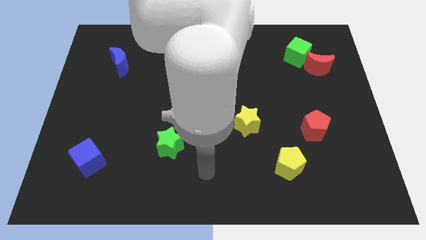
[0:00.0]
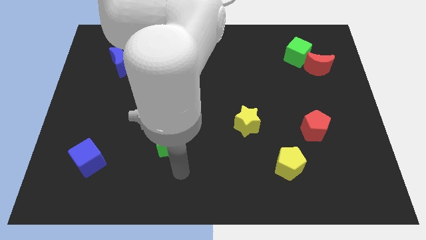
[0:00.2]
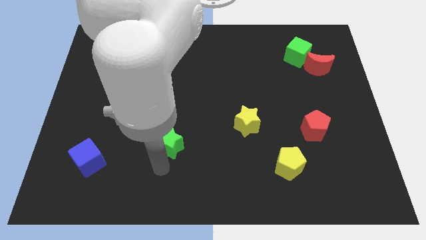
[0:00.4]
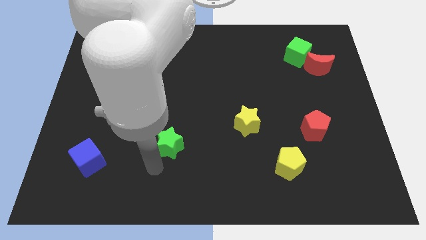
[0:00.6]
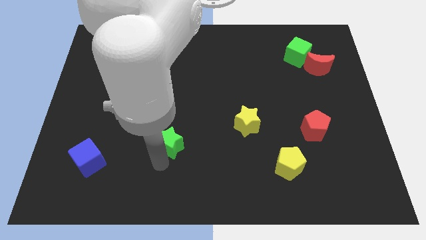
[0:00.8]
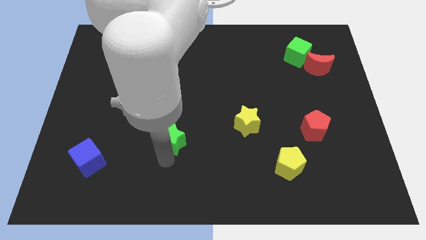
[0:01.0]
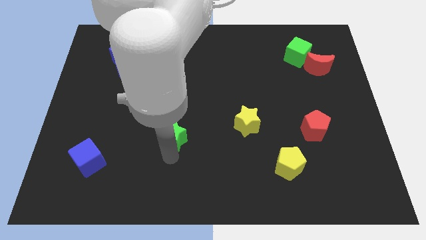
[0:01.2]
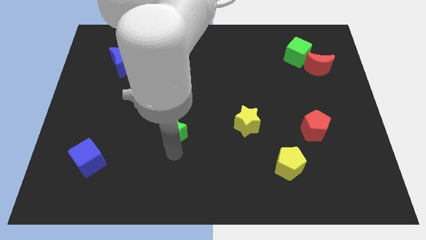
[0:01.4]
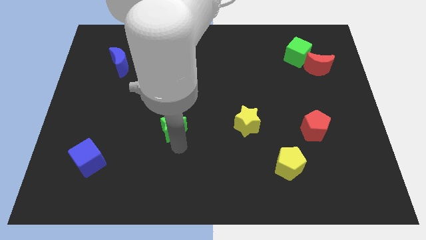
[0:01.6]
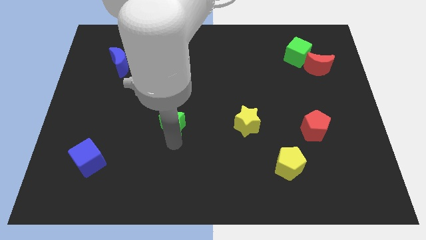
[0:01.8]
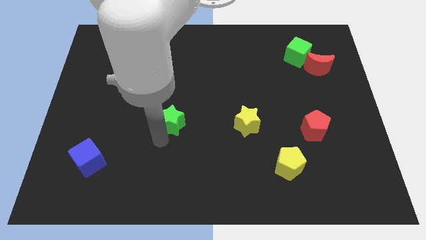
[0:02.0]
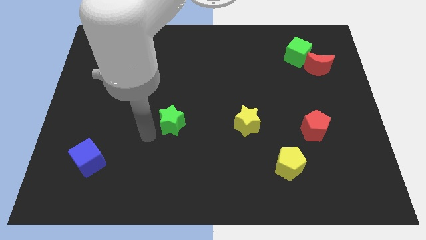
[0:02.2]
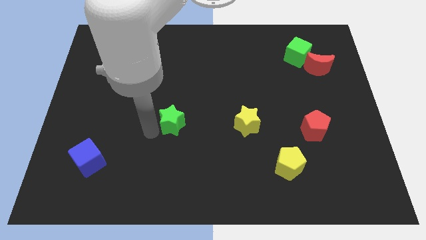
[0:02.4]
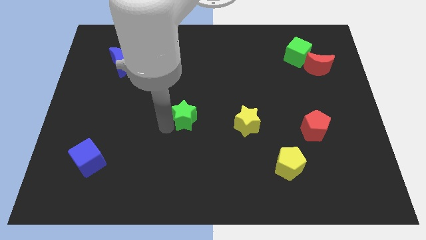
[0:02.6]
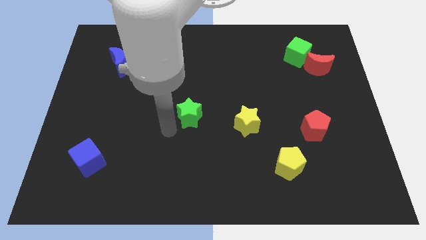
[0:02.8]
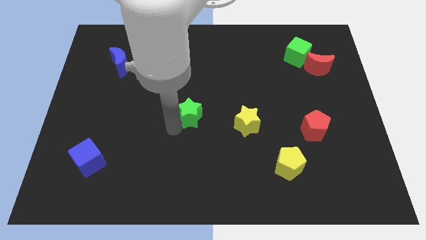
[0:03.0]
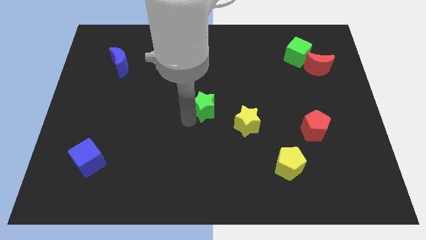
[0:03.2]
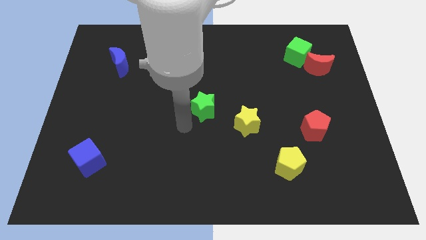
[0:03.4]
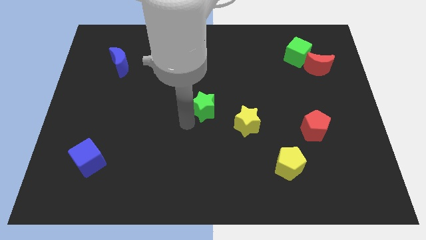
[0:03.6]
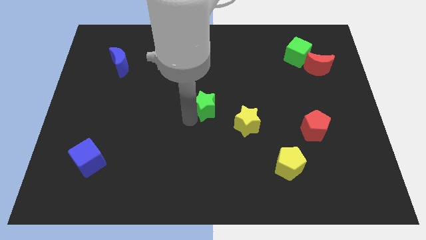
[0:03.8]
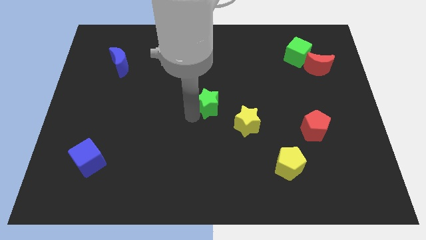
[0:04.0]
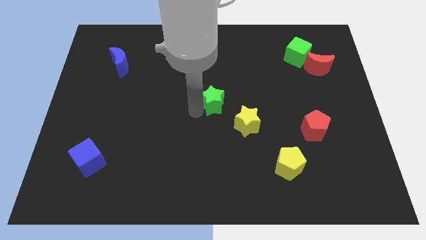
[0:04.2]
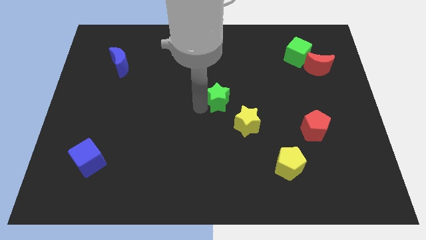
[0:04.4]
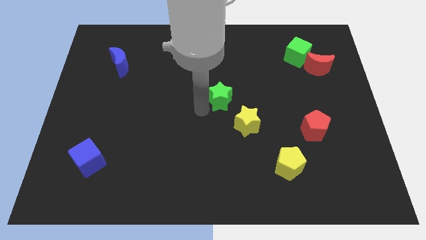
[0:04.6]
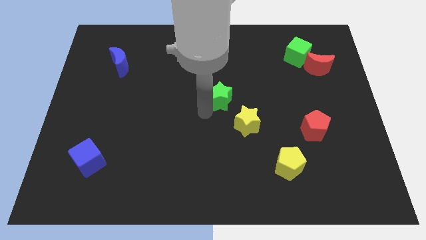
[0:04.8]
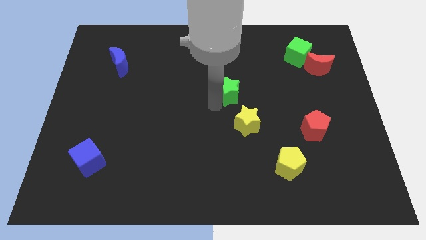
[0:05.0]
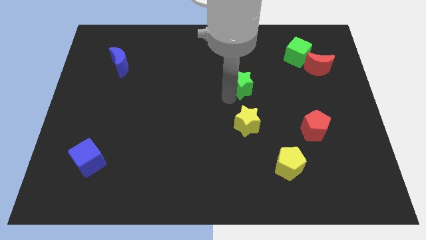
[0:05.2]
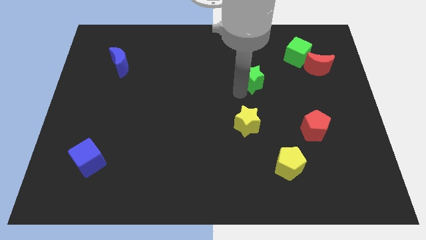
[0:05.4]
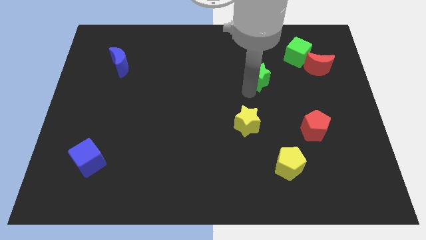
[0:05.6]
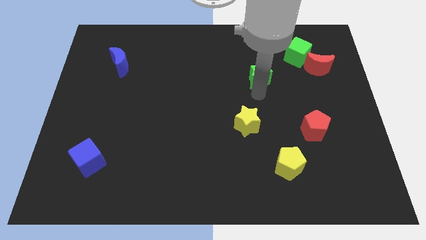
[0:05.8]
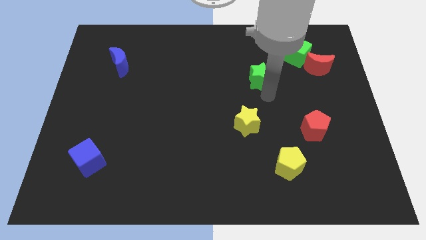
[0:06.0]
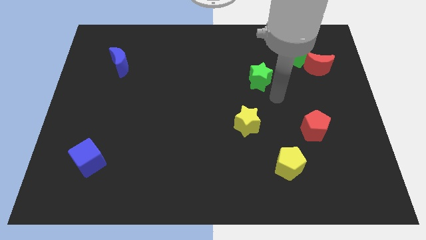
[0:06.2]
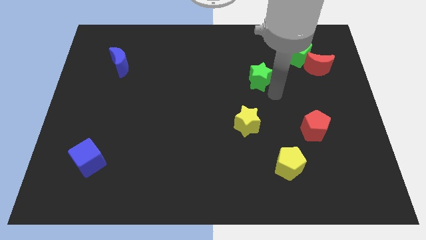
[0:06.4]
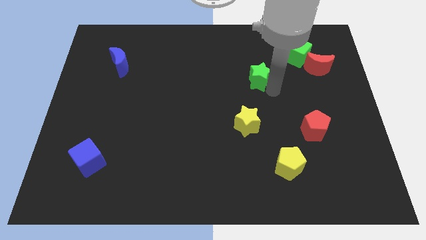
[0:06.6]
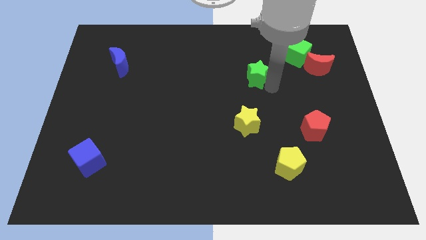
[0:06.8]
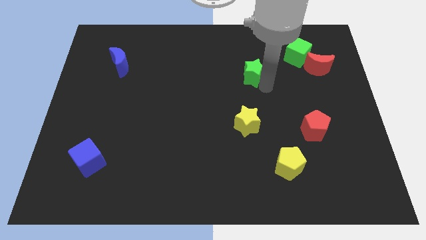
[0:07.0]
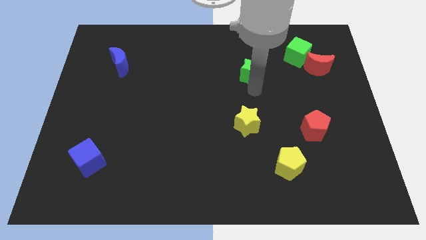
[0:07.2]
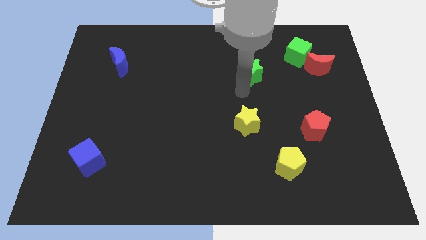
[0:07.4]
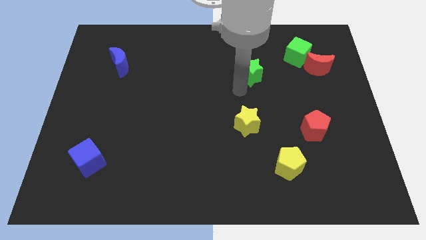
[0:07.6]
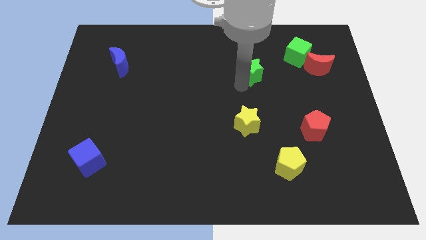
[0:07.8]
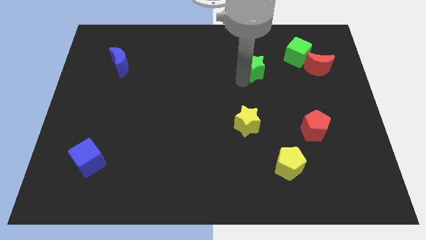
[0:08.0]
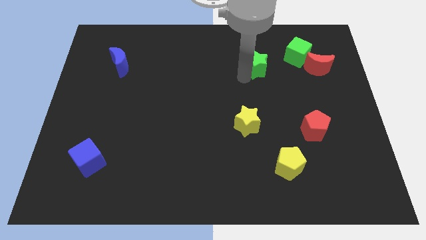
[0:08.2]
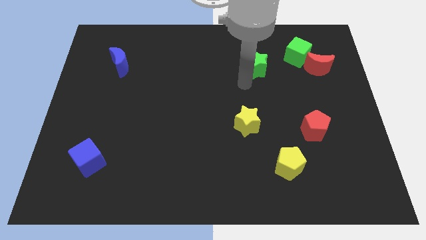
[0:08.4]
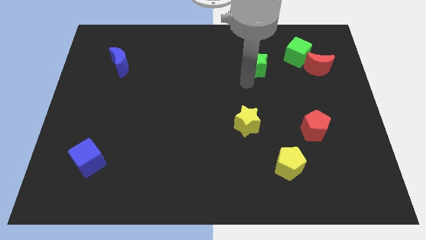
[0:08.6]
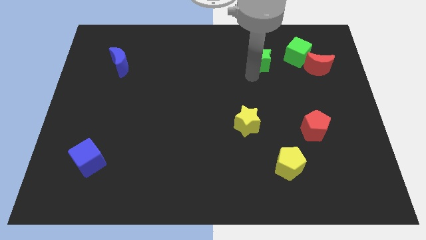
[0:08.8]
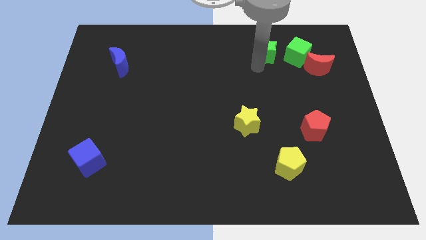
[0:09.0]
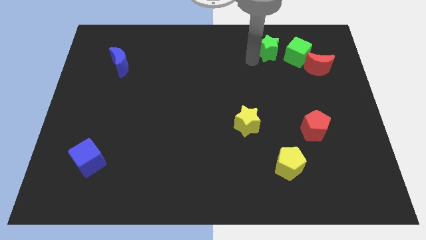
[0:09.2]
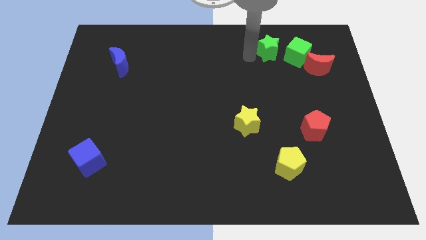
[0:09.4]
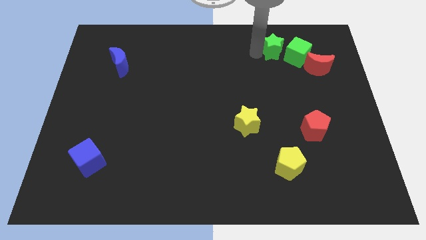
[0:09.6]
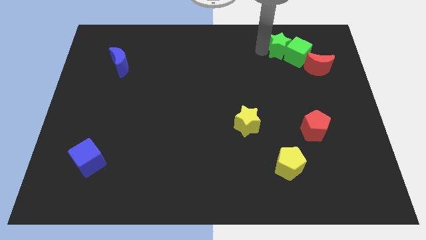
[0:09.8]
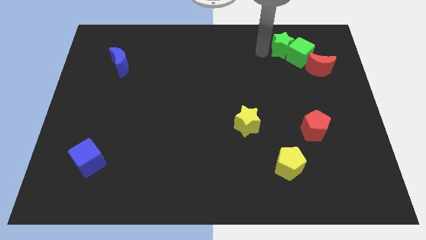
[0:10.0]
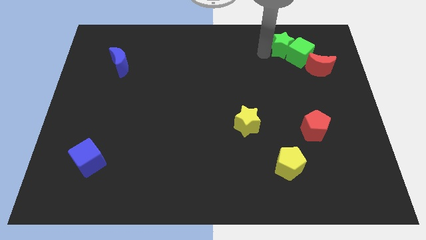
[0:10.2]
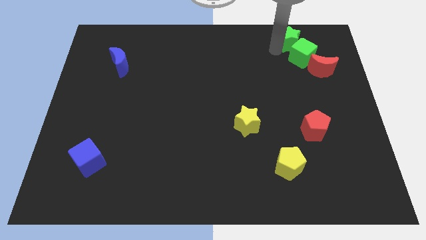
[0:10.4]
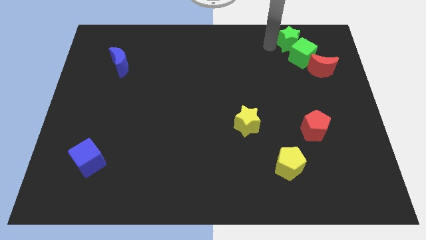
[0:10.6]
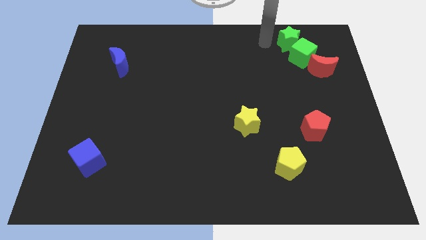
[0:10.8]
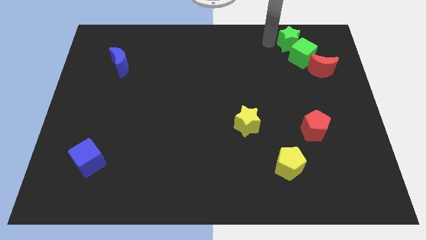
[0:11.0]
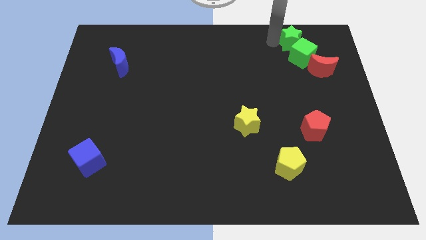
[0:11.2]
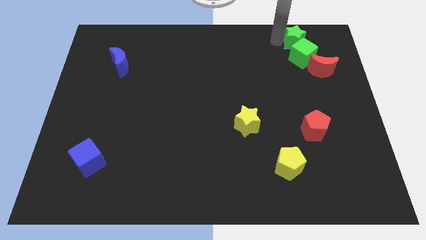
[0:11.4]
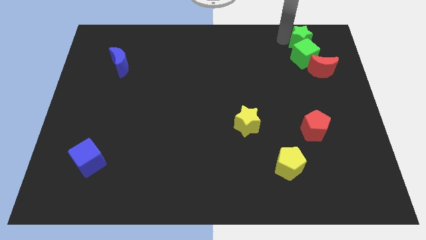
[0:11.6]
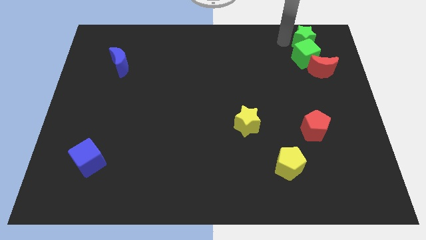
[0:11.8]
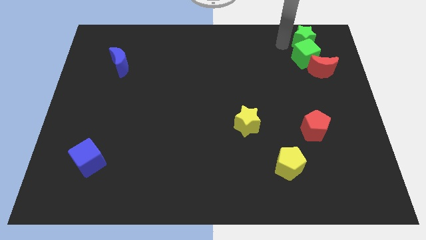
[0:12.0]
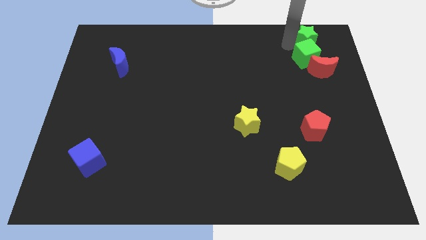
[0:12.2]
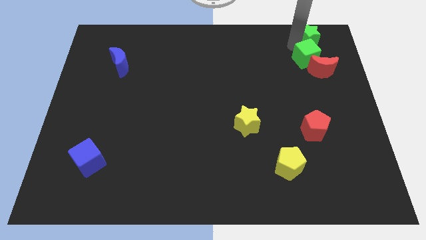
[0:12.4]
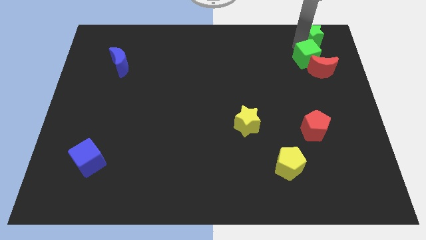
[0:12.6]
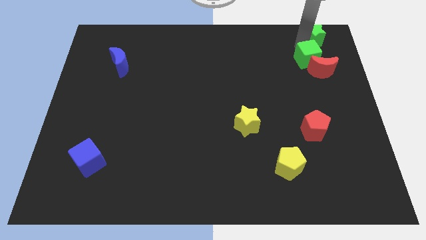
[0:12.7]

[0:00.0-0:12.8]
put the green star to the upper right corner
